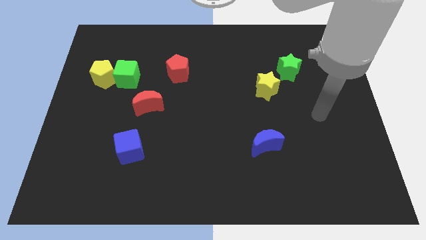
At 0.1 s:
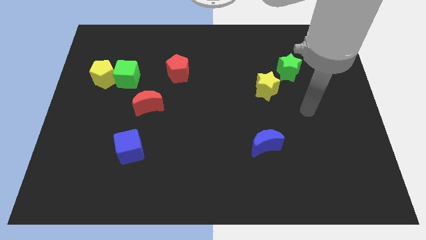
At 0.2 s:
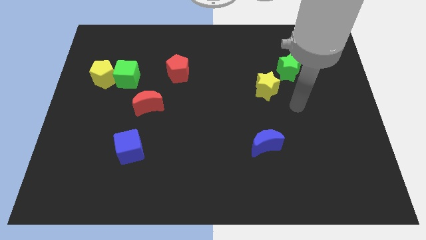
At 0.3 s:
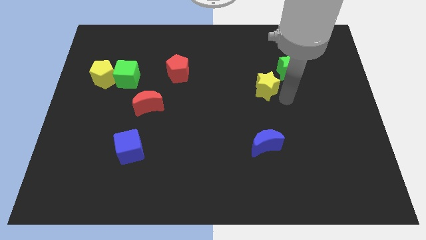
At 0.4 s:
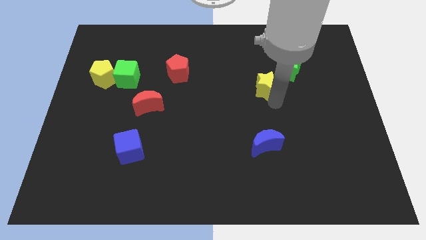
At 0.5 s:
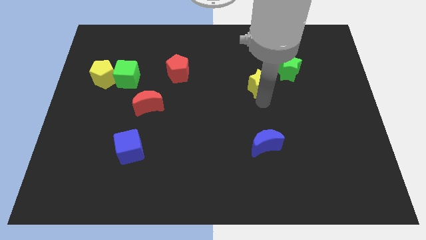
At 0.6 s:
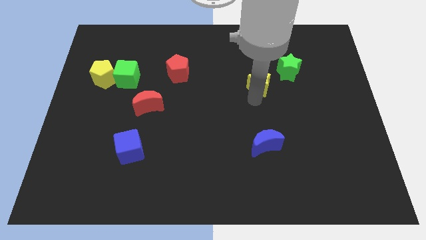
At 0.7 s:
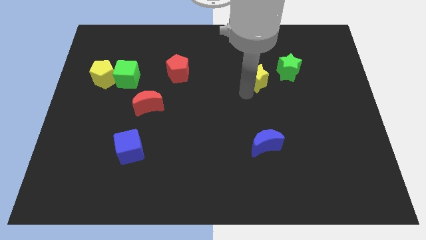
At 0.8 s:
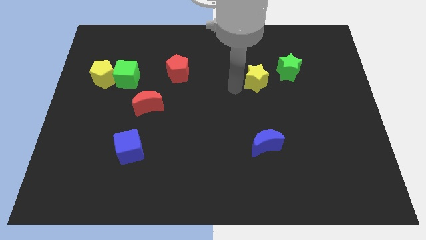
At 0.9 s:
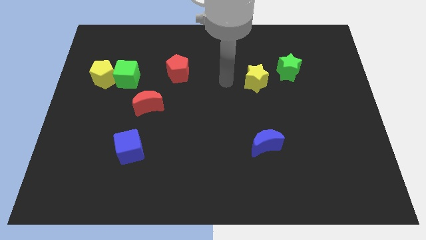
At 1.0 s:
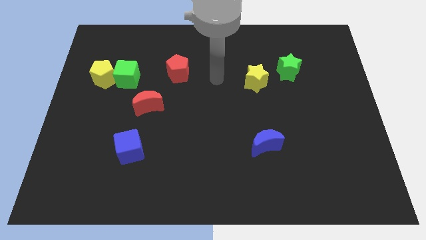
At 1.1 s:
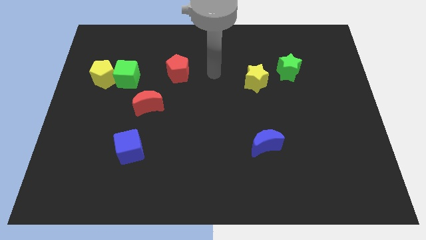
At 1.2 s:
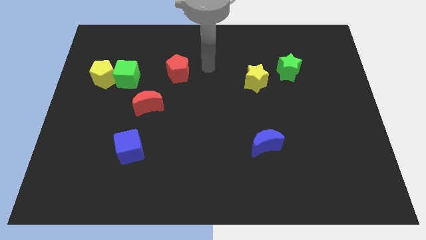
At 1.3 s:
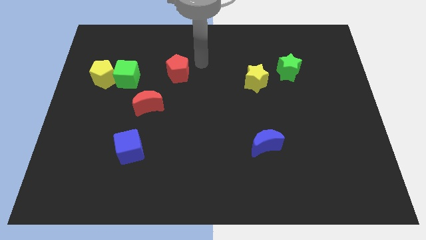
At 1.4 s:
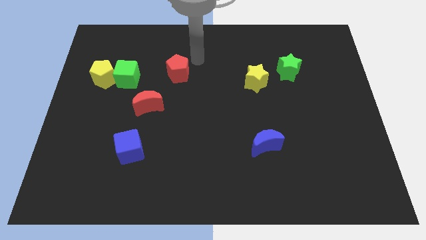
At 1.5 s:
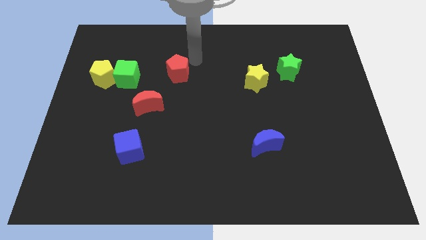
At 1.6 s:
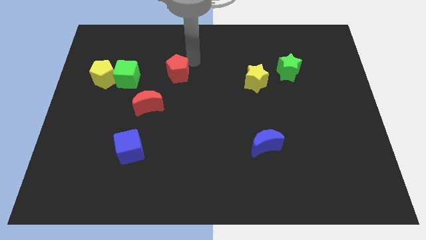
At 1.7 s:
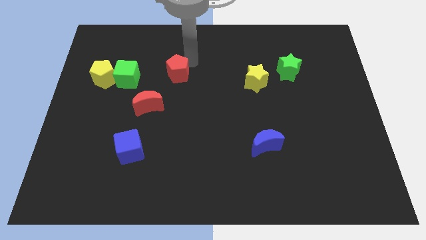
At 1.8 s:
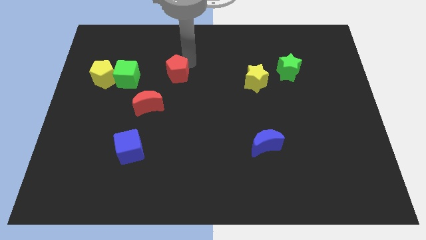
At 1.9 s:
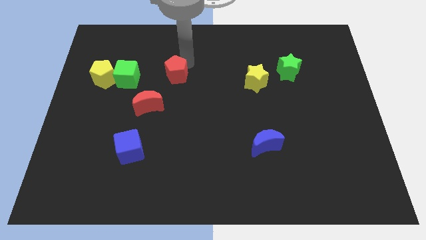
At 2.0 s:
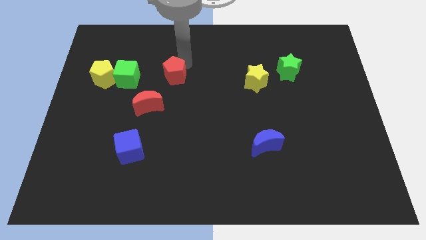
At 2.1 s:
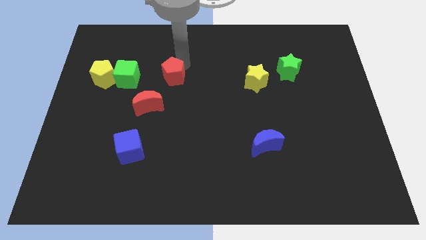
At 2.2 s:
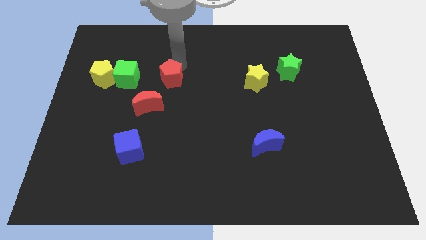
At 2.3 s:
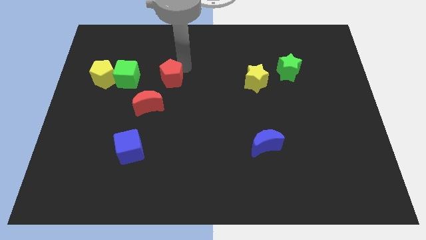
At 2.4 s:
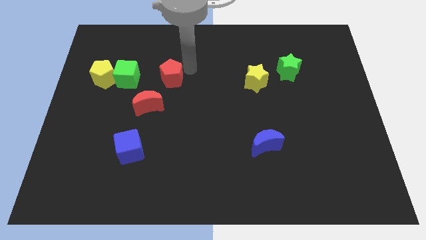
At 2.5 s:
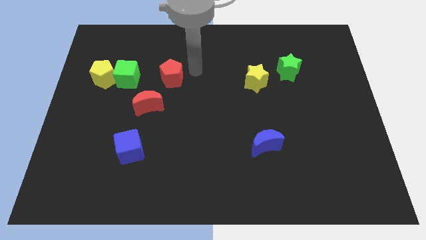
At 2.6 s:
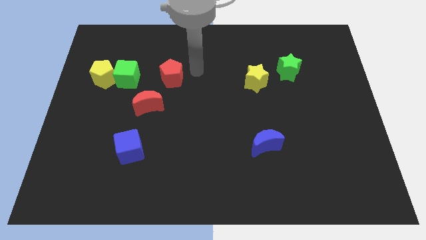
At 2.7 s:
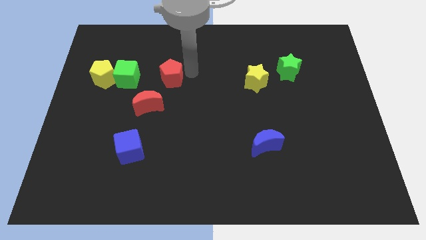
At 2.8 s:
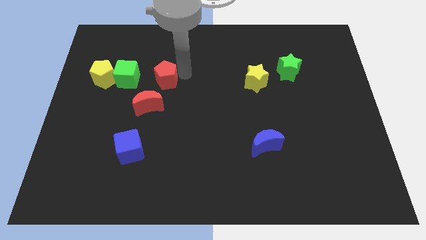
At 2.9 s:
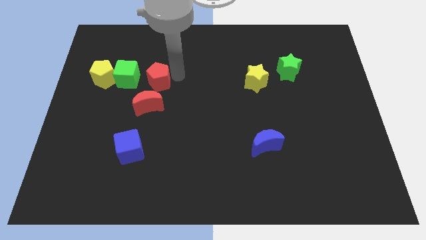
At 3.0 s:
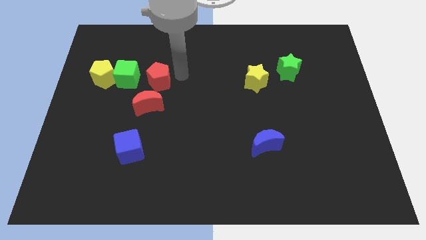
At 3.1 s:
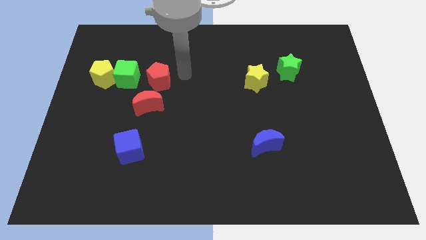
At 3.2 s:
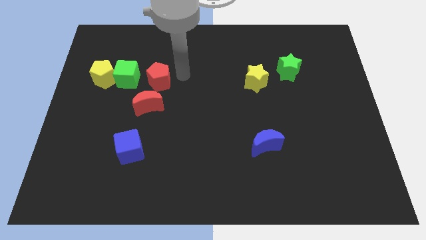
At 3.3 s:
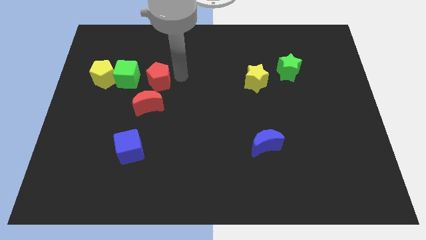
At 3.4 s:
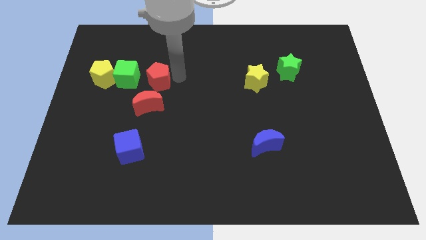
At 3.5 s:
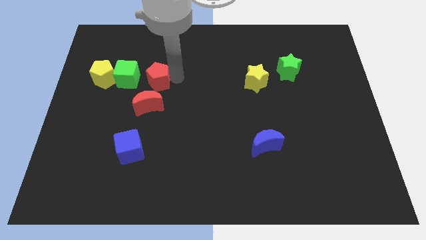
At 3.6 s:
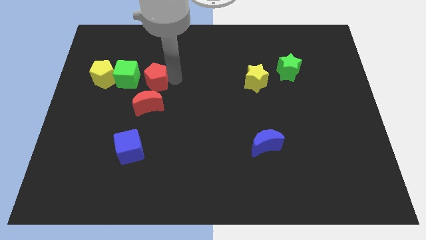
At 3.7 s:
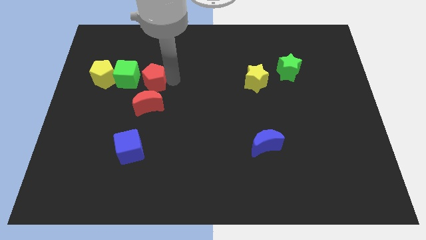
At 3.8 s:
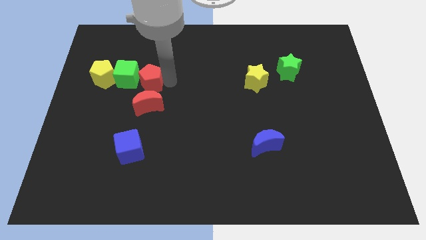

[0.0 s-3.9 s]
slightly push the red pentagon downwards and left diagonally

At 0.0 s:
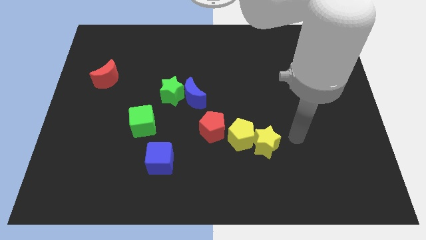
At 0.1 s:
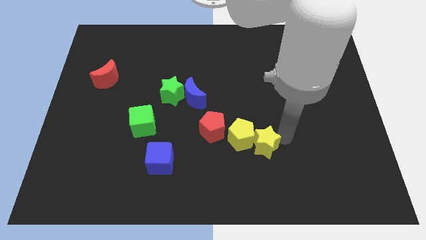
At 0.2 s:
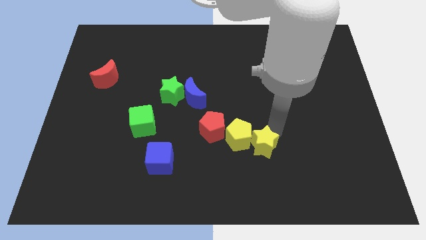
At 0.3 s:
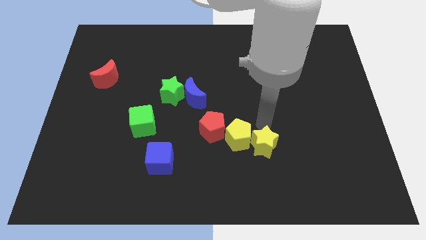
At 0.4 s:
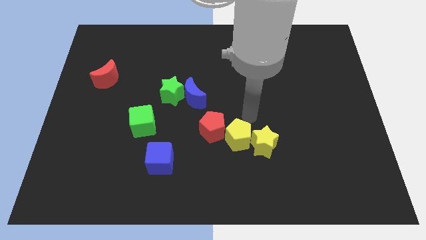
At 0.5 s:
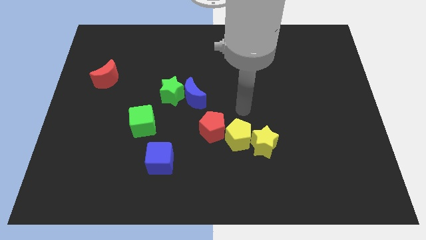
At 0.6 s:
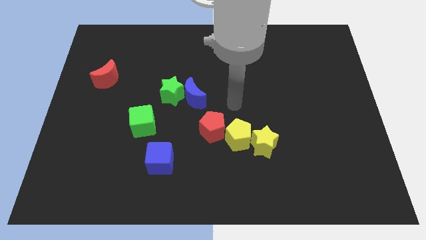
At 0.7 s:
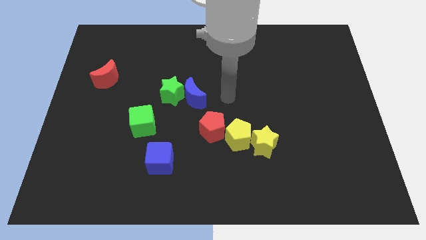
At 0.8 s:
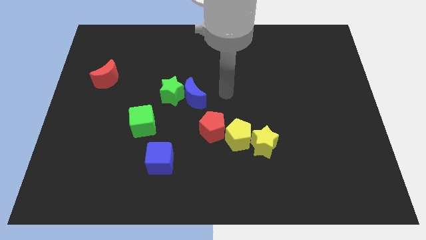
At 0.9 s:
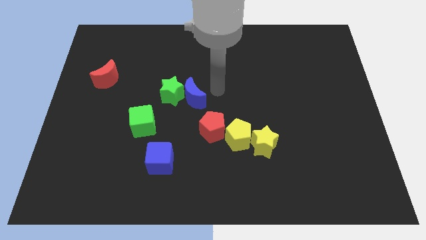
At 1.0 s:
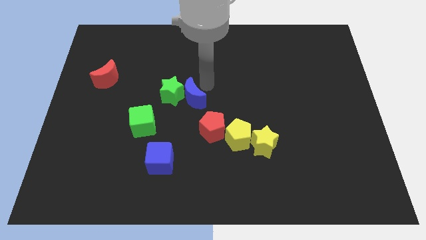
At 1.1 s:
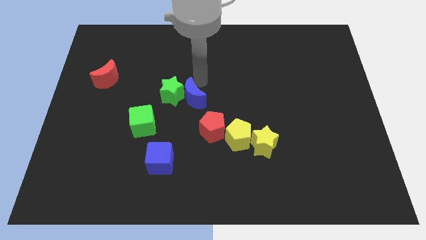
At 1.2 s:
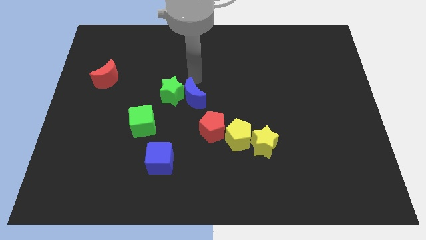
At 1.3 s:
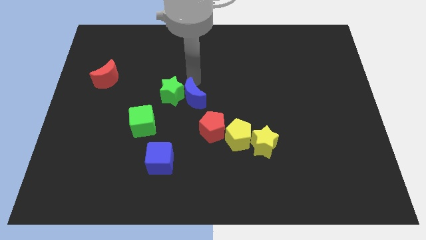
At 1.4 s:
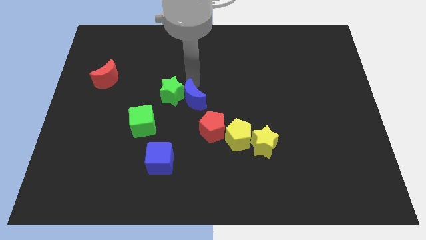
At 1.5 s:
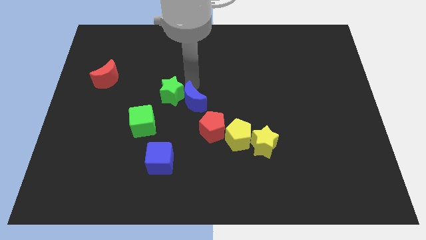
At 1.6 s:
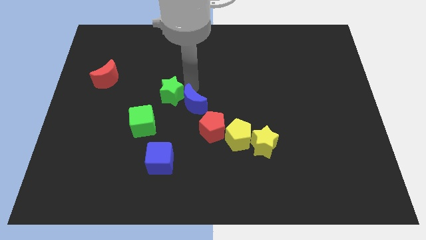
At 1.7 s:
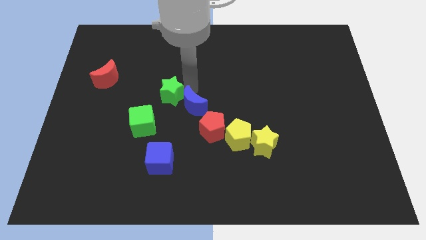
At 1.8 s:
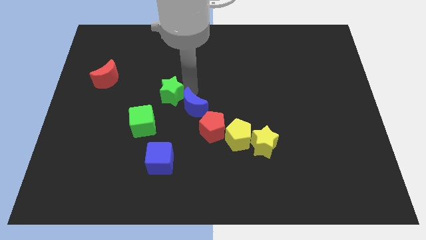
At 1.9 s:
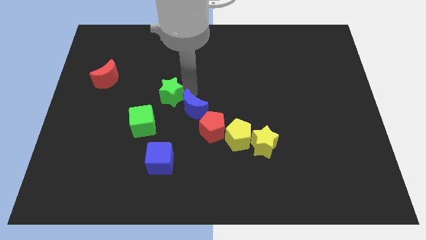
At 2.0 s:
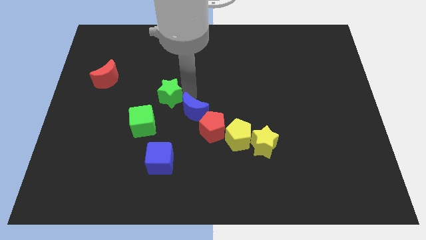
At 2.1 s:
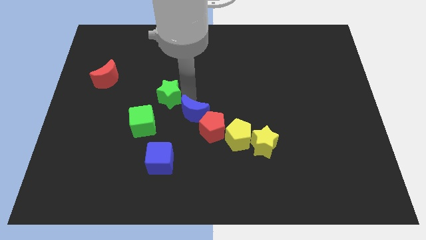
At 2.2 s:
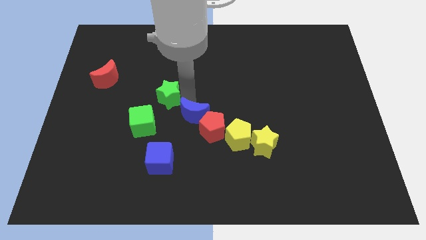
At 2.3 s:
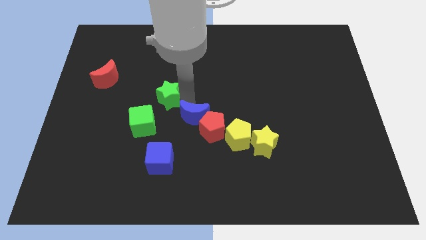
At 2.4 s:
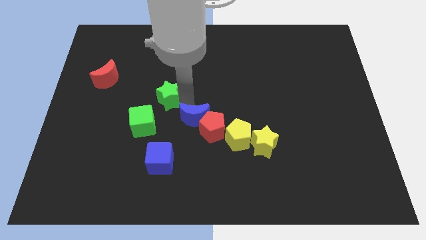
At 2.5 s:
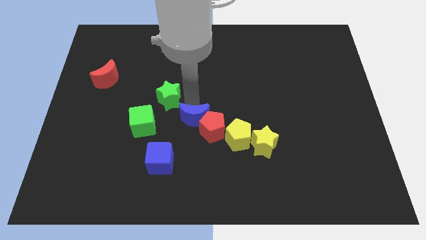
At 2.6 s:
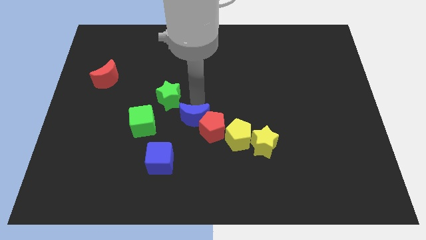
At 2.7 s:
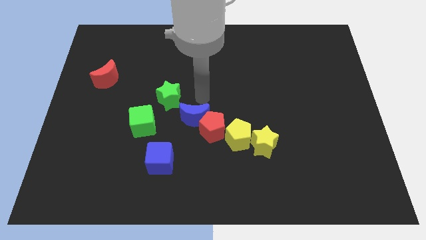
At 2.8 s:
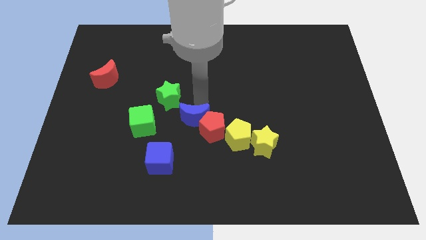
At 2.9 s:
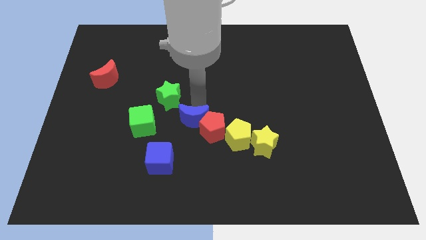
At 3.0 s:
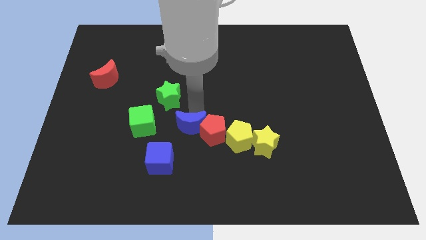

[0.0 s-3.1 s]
push the blue moon downwards a bit

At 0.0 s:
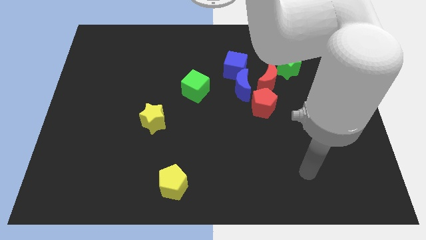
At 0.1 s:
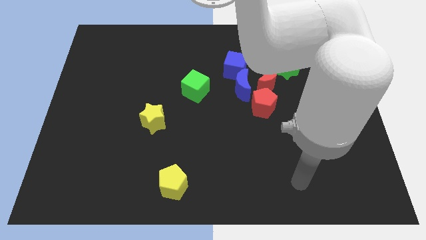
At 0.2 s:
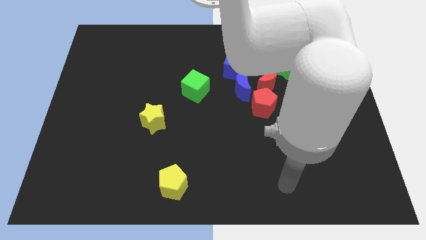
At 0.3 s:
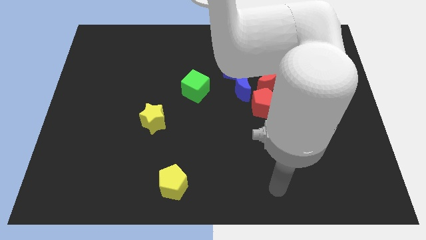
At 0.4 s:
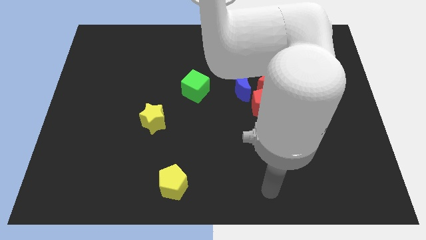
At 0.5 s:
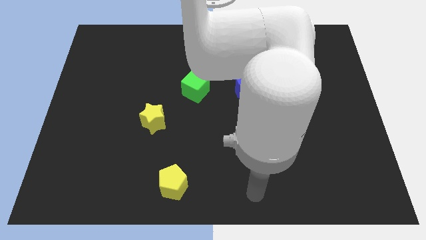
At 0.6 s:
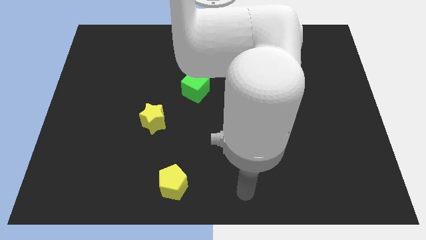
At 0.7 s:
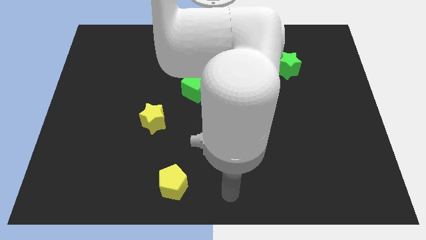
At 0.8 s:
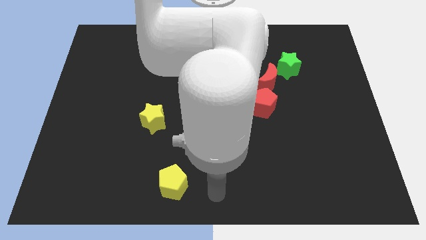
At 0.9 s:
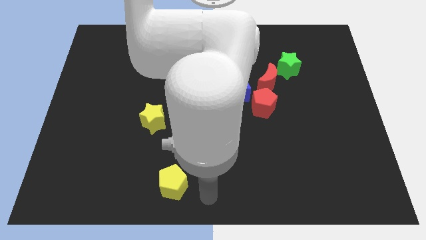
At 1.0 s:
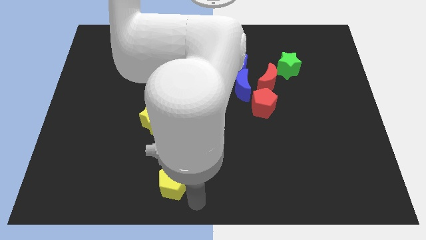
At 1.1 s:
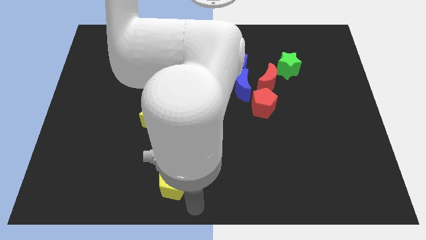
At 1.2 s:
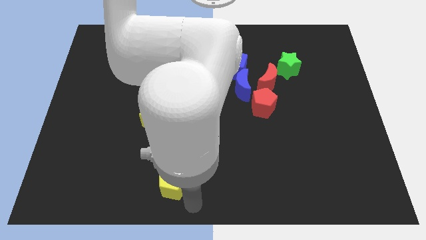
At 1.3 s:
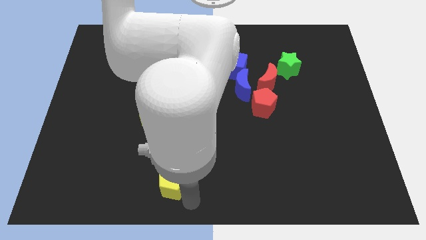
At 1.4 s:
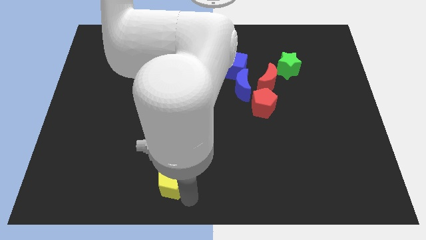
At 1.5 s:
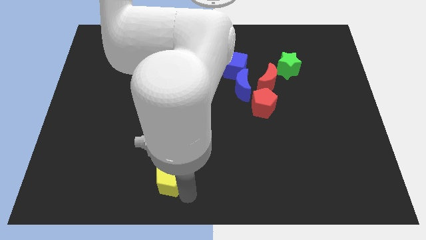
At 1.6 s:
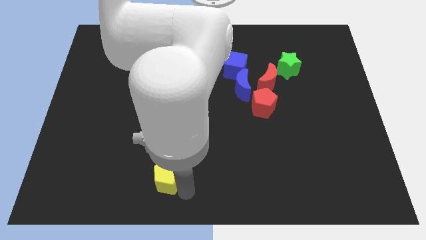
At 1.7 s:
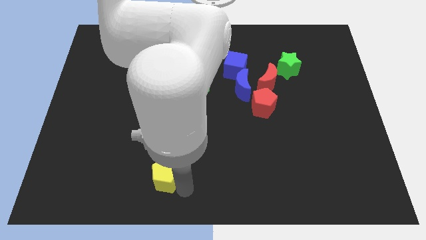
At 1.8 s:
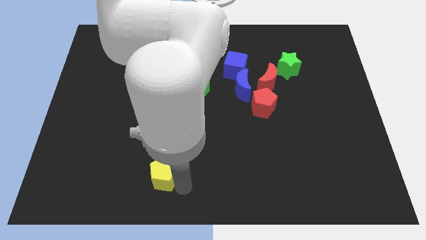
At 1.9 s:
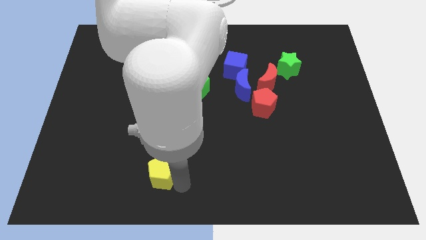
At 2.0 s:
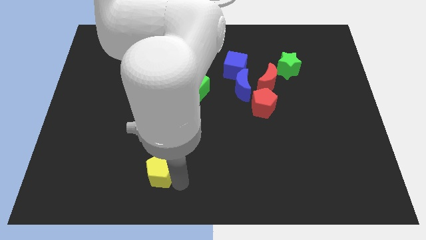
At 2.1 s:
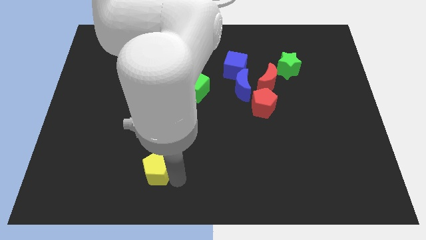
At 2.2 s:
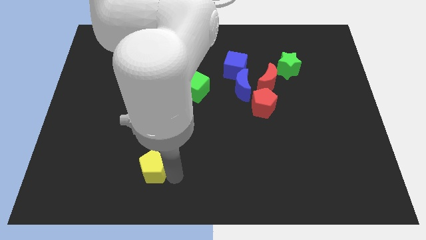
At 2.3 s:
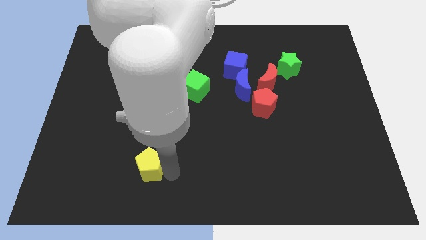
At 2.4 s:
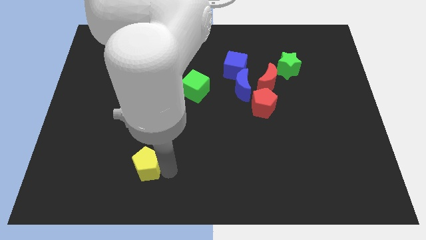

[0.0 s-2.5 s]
push the yellow pentagon a bit upwards and to the left diagonally
